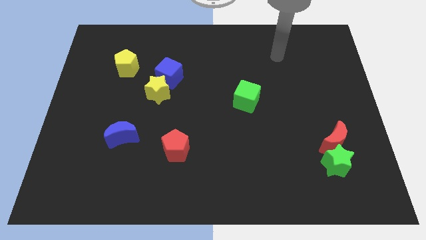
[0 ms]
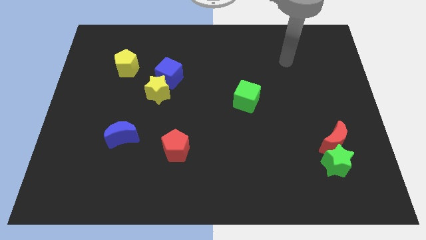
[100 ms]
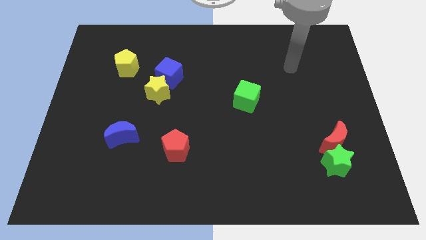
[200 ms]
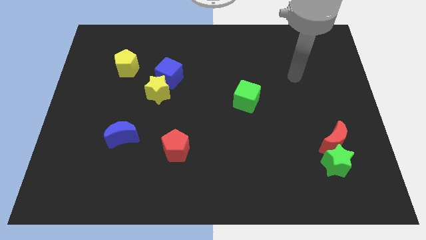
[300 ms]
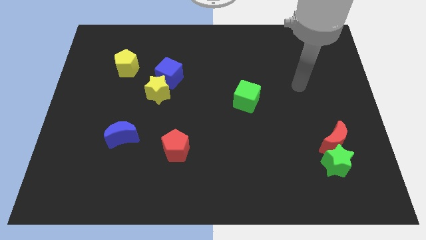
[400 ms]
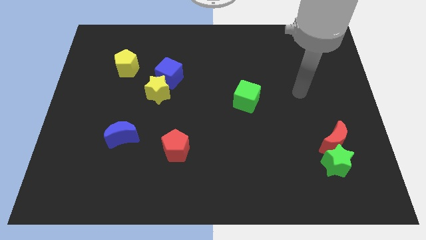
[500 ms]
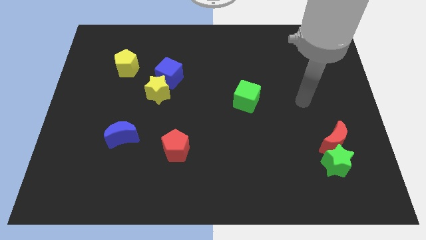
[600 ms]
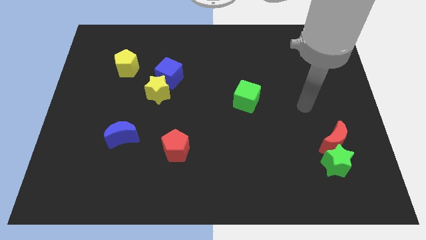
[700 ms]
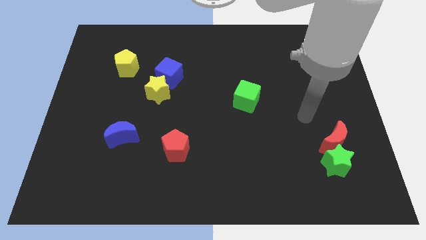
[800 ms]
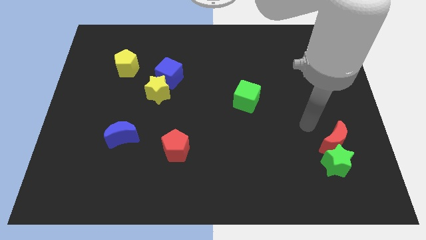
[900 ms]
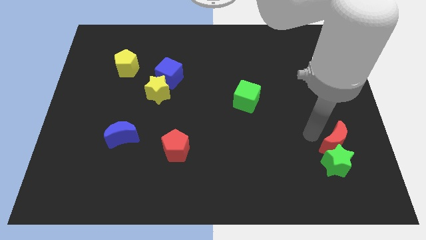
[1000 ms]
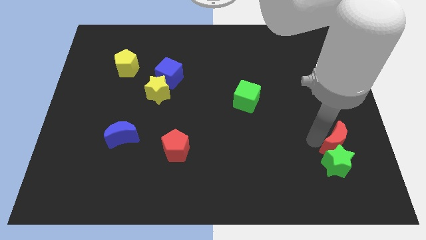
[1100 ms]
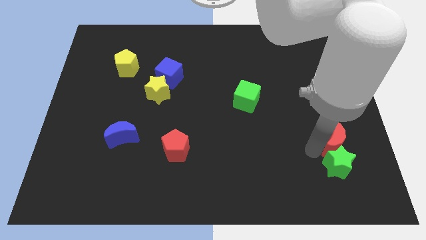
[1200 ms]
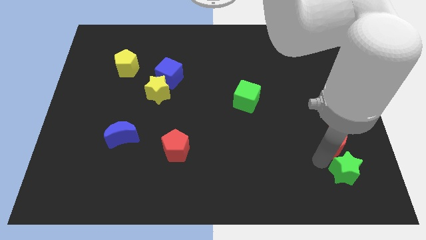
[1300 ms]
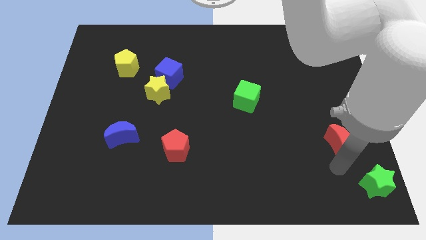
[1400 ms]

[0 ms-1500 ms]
move the red moon away from the green star

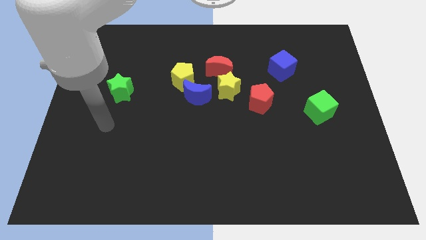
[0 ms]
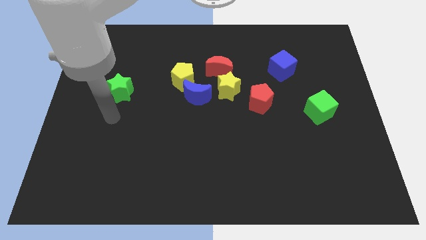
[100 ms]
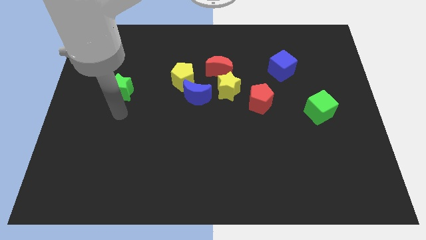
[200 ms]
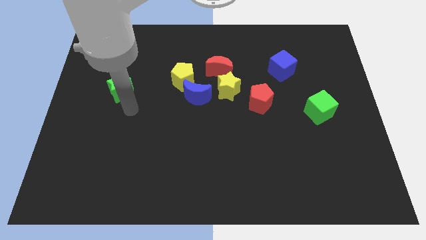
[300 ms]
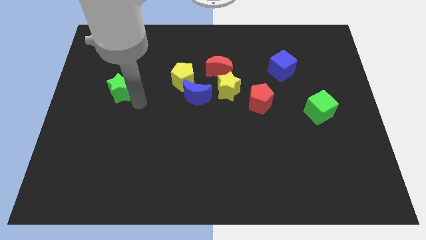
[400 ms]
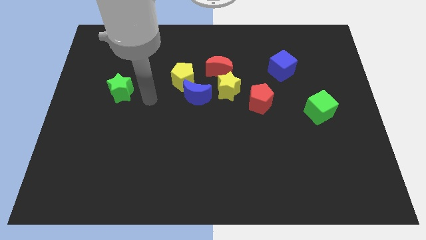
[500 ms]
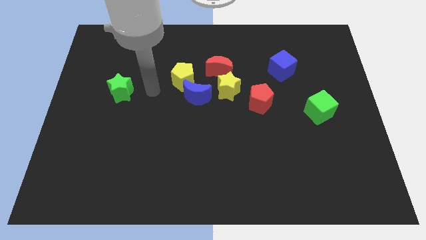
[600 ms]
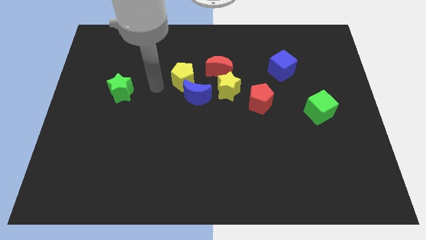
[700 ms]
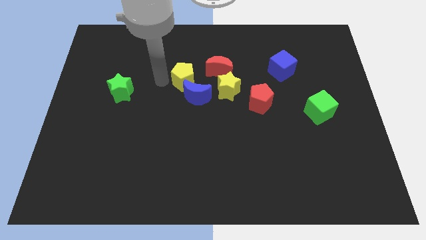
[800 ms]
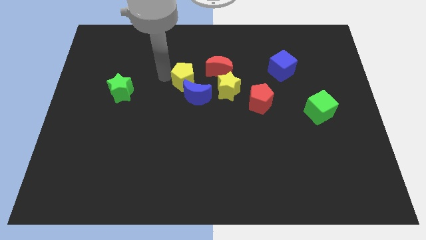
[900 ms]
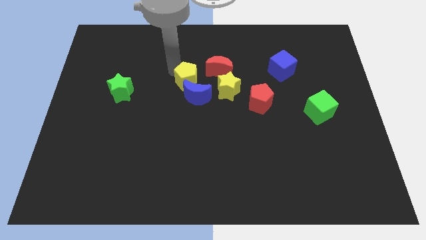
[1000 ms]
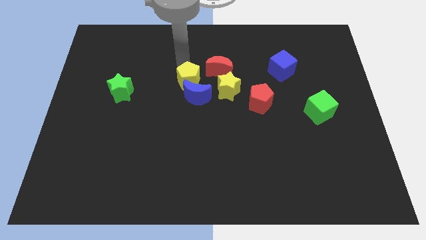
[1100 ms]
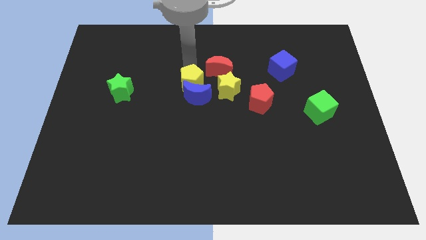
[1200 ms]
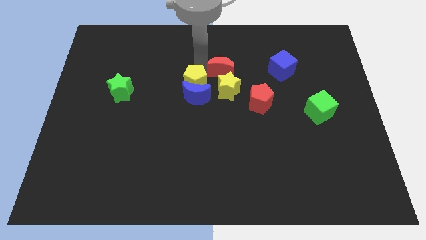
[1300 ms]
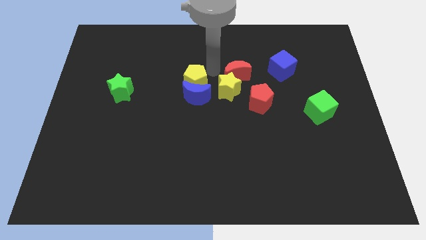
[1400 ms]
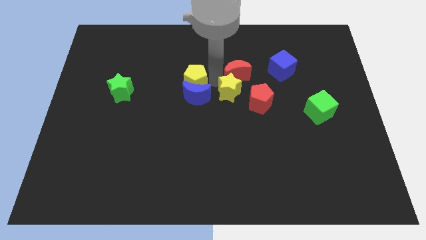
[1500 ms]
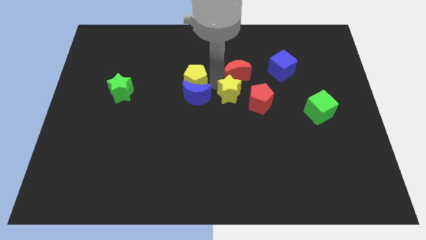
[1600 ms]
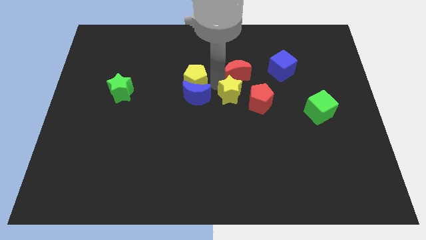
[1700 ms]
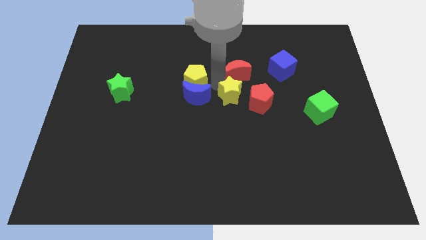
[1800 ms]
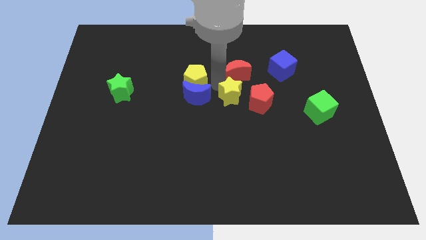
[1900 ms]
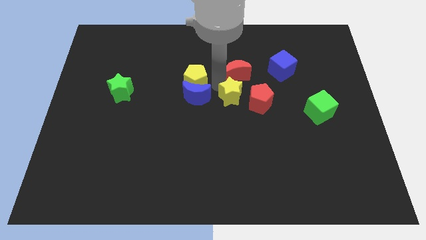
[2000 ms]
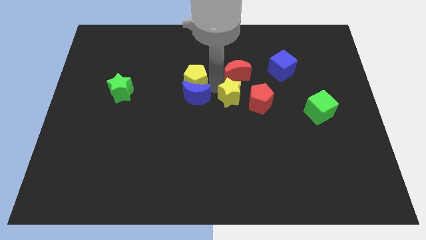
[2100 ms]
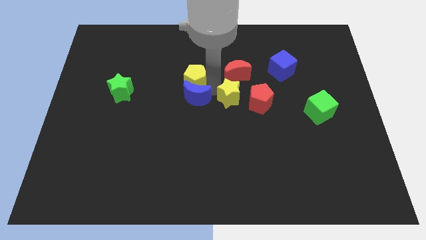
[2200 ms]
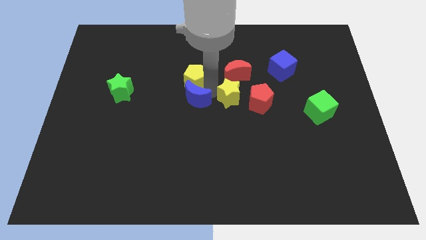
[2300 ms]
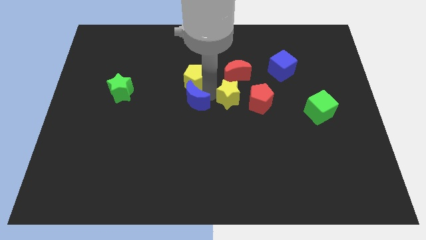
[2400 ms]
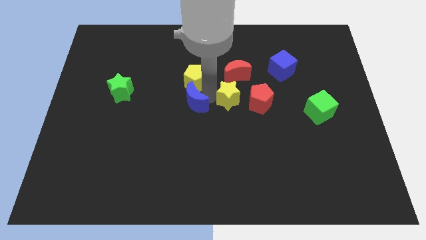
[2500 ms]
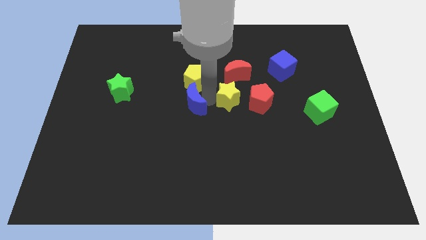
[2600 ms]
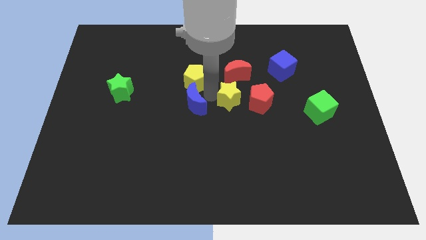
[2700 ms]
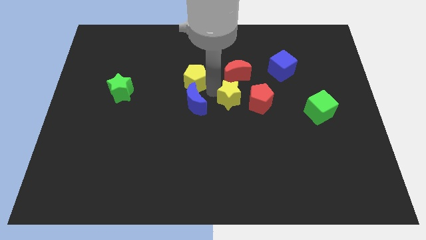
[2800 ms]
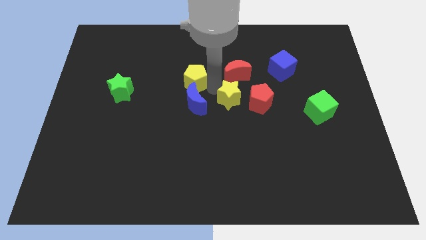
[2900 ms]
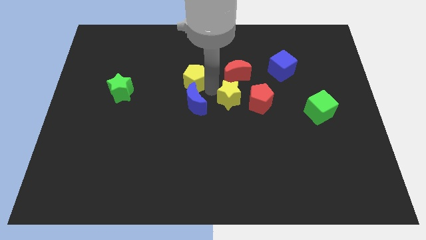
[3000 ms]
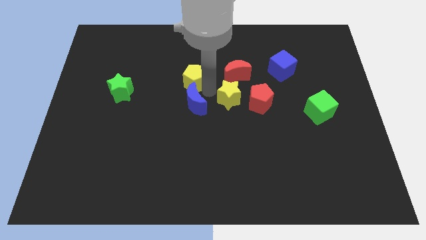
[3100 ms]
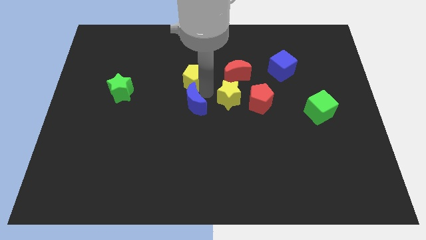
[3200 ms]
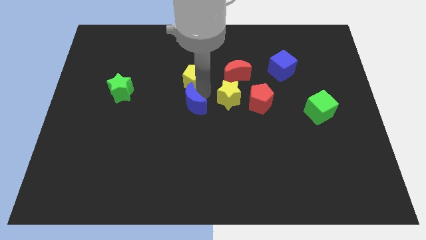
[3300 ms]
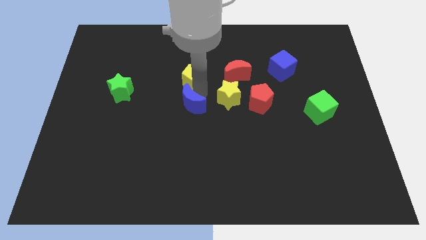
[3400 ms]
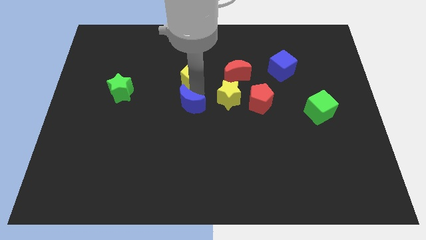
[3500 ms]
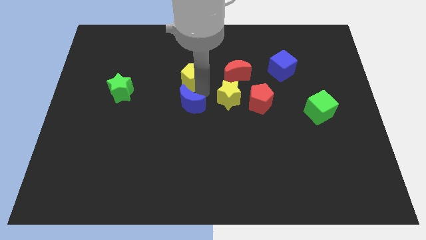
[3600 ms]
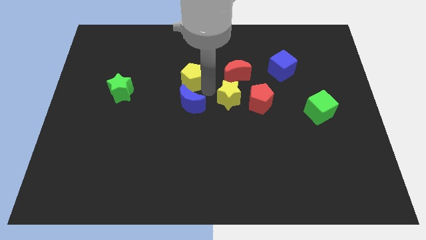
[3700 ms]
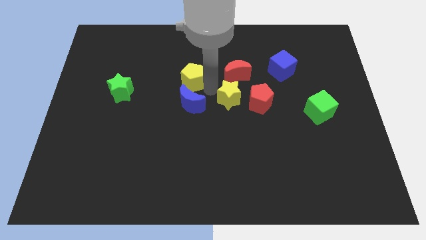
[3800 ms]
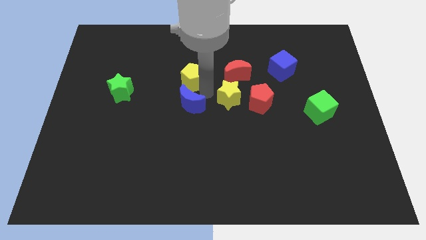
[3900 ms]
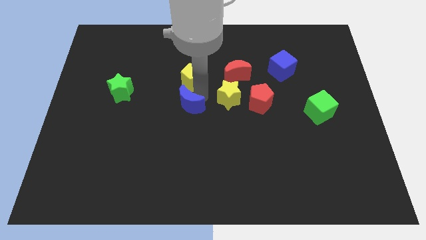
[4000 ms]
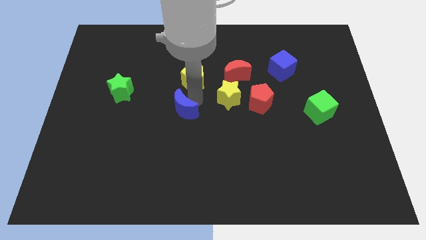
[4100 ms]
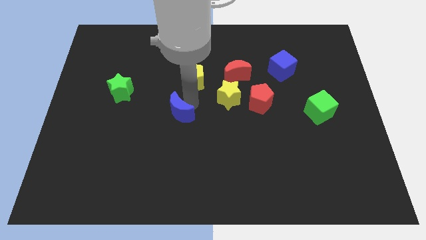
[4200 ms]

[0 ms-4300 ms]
move the blue moon away from the yellow pentagon and yellow star

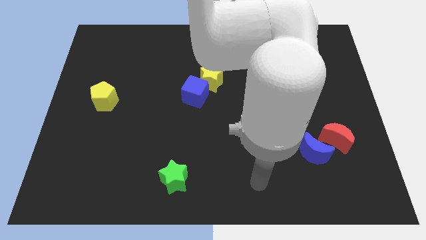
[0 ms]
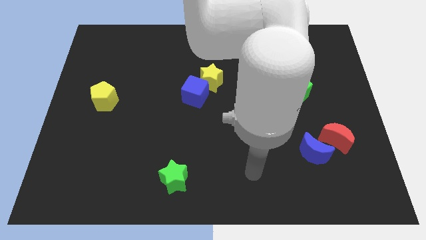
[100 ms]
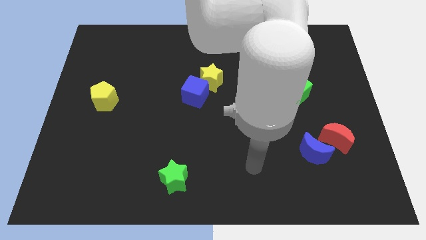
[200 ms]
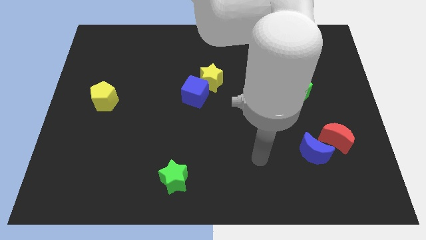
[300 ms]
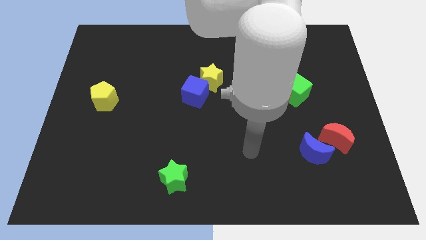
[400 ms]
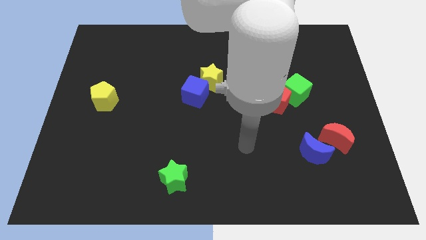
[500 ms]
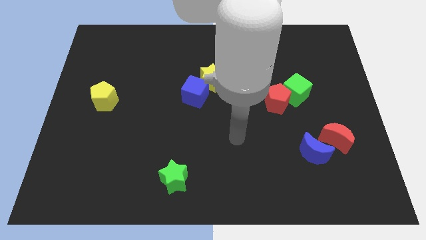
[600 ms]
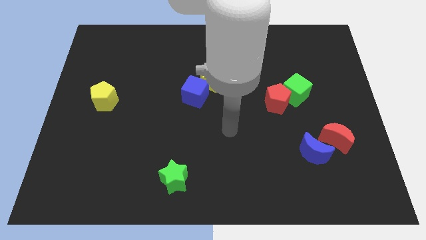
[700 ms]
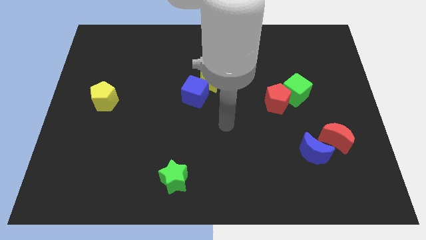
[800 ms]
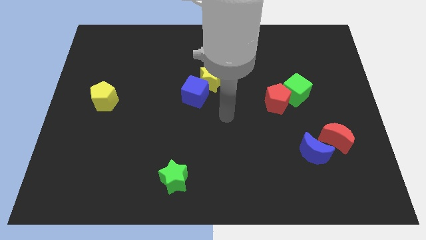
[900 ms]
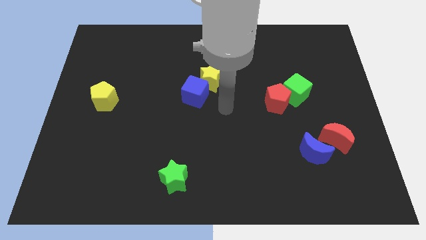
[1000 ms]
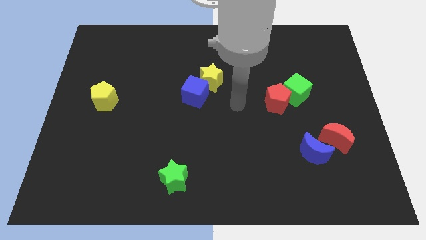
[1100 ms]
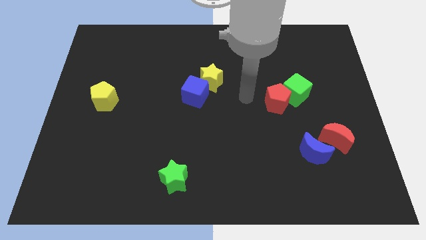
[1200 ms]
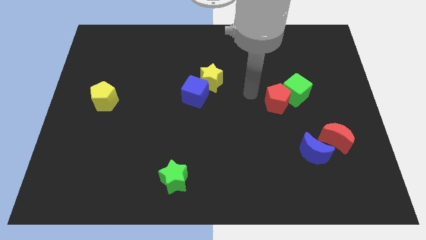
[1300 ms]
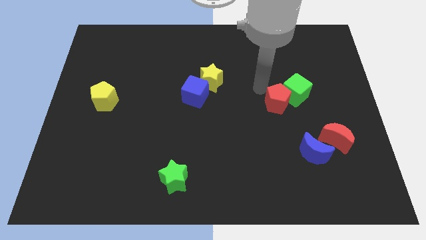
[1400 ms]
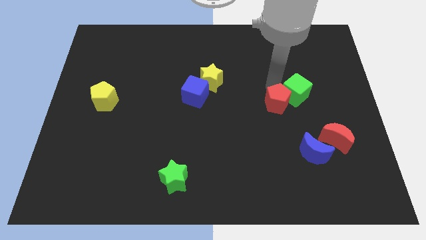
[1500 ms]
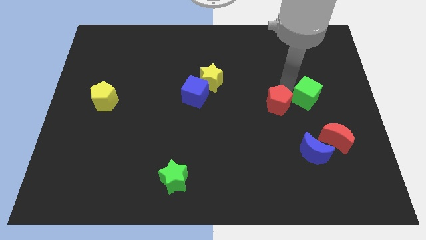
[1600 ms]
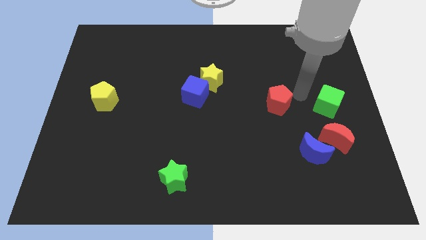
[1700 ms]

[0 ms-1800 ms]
move the red pentagon away from the green cube

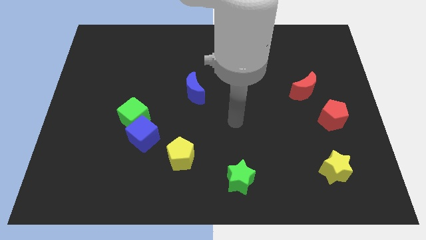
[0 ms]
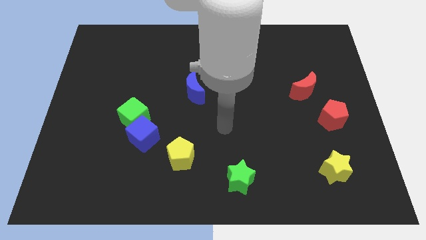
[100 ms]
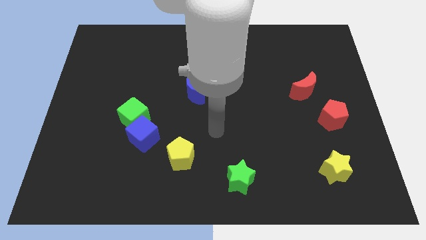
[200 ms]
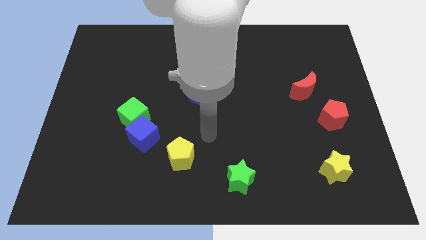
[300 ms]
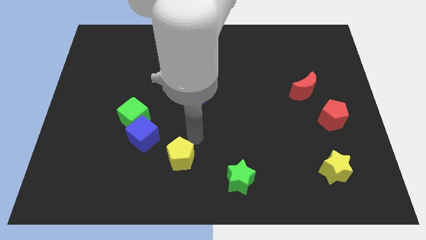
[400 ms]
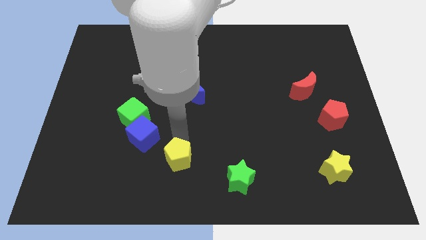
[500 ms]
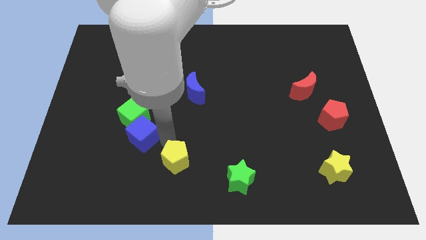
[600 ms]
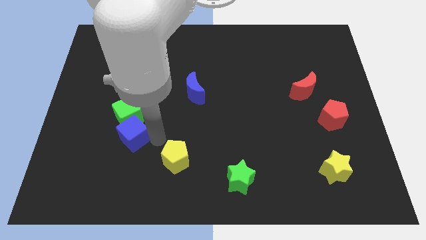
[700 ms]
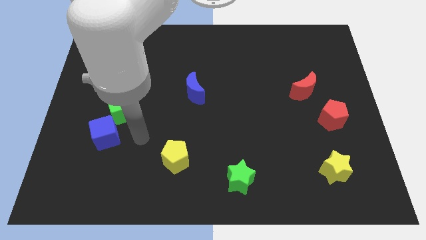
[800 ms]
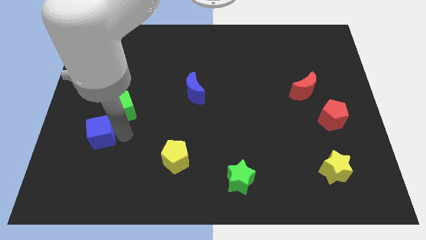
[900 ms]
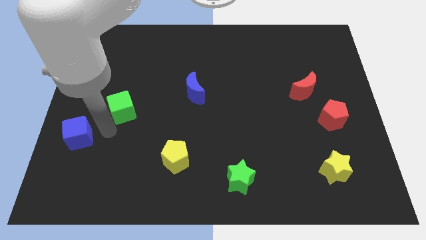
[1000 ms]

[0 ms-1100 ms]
separate the green cube from the blue cube

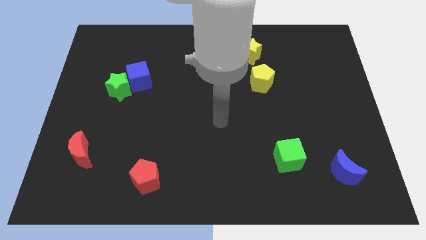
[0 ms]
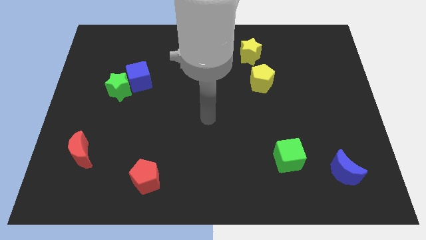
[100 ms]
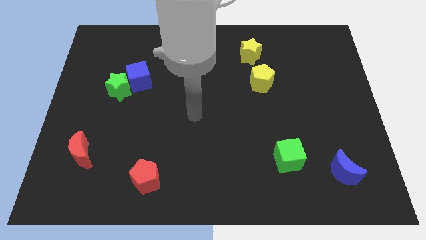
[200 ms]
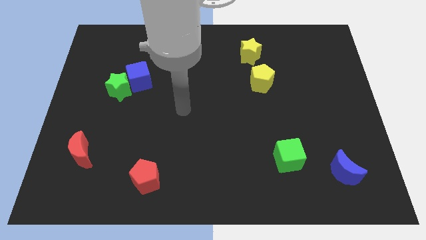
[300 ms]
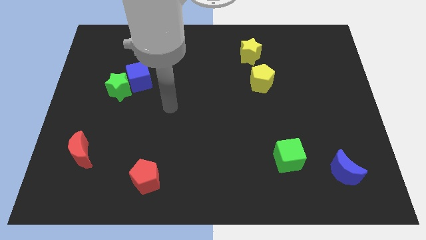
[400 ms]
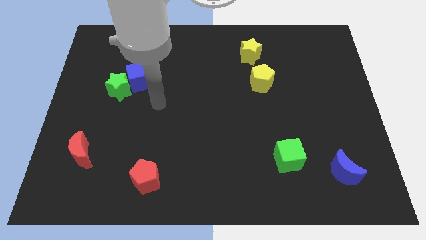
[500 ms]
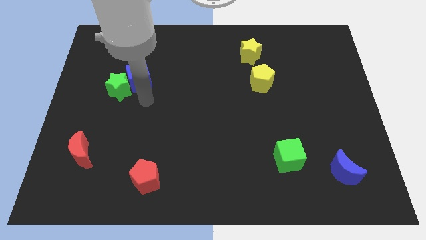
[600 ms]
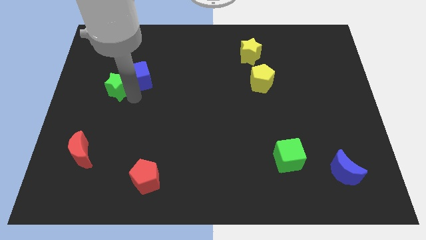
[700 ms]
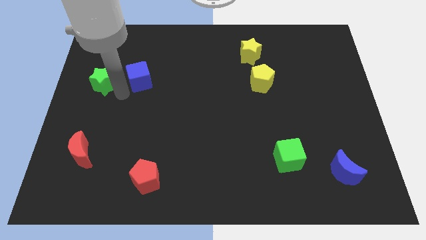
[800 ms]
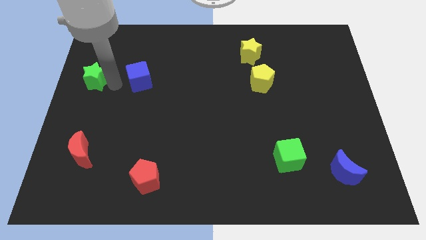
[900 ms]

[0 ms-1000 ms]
move the blue cube away from the green star
